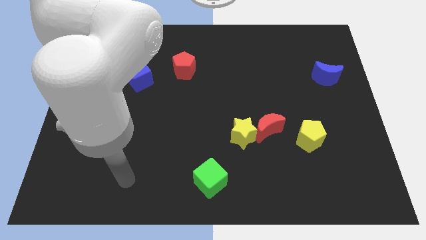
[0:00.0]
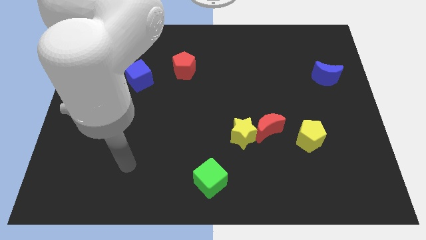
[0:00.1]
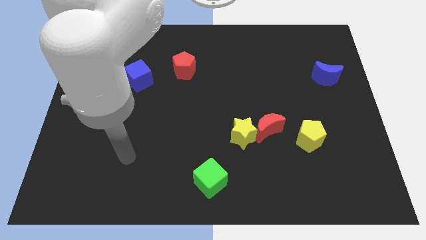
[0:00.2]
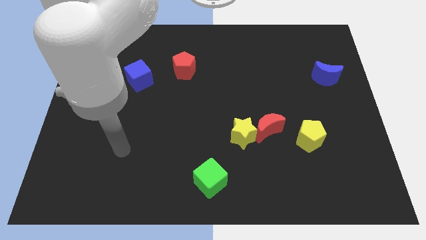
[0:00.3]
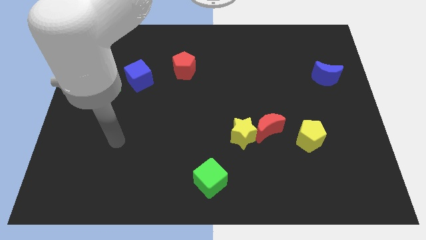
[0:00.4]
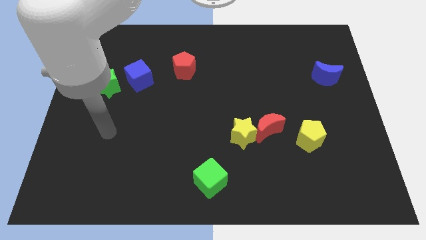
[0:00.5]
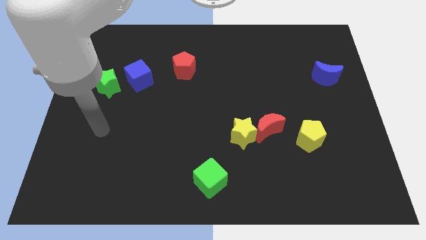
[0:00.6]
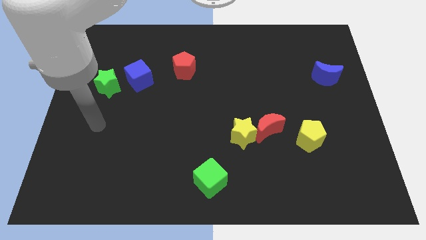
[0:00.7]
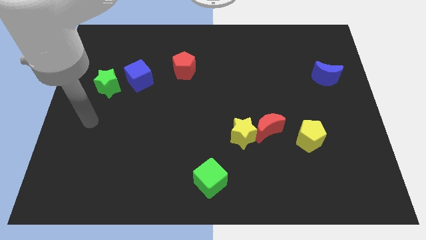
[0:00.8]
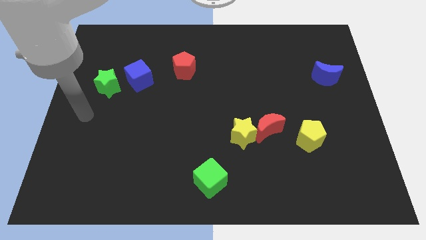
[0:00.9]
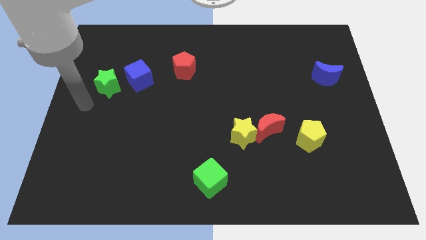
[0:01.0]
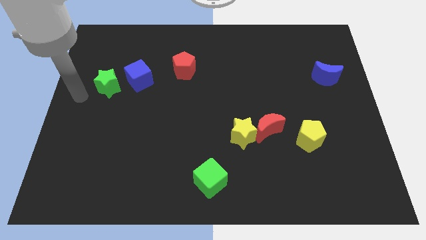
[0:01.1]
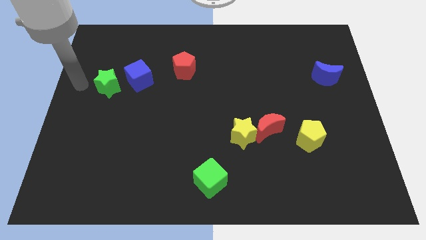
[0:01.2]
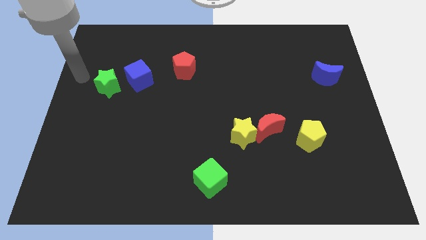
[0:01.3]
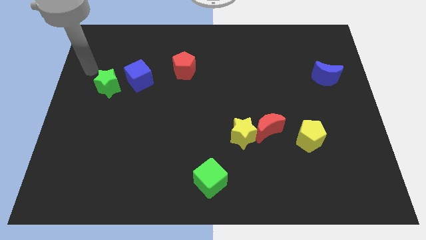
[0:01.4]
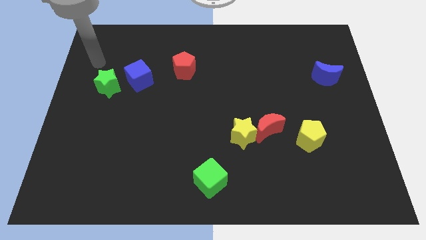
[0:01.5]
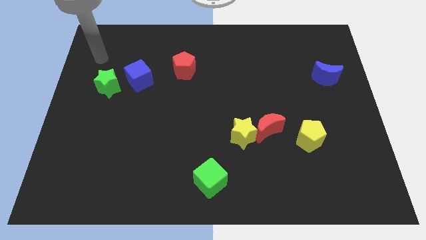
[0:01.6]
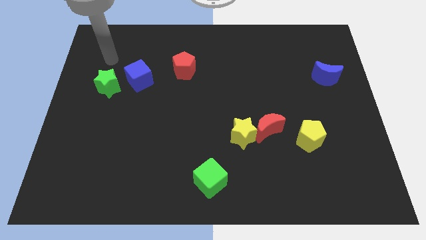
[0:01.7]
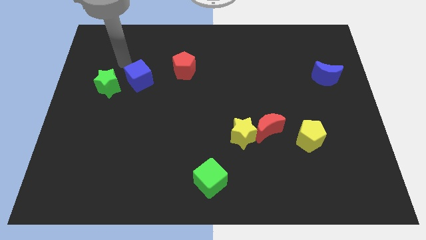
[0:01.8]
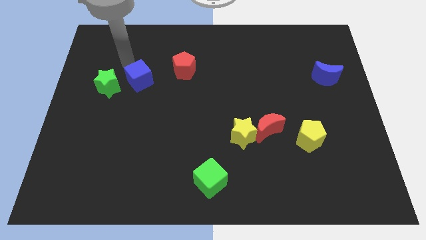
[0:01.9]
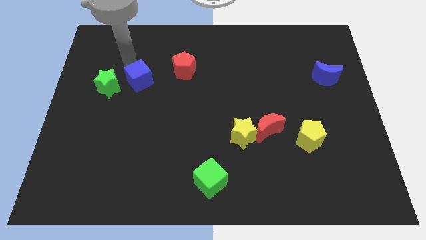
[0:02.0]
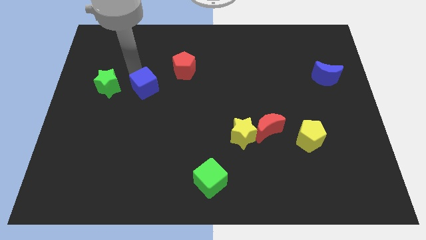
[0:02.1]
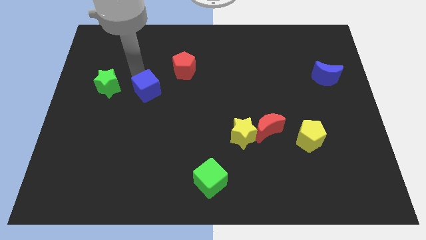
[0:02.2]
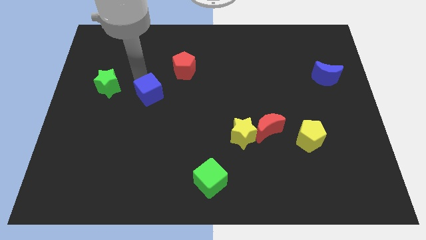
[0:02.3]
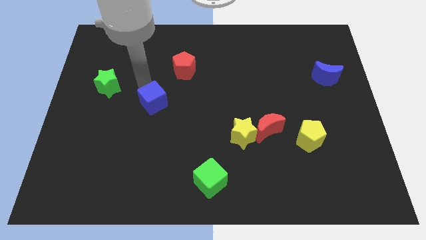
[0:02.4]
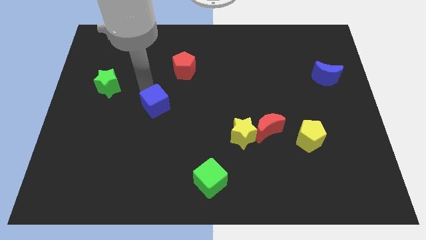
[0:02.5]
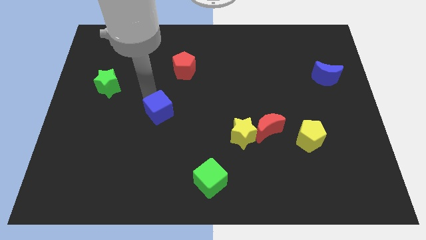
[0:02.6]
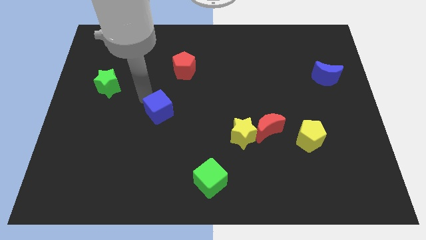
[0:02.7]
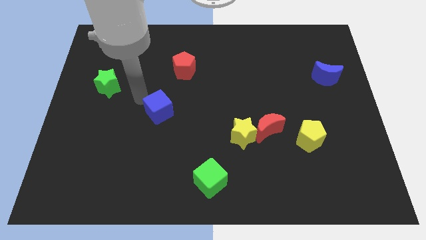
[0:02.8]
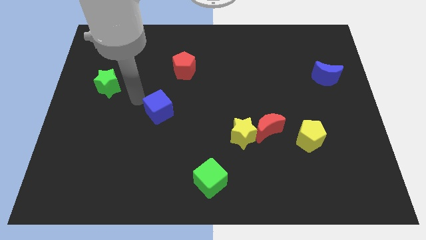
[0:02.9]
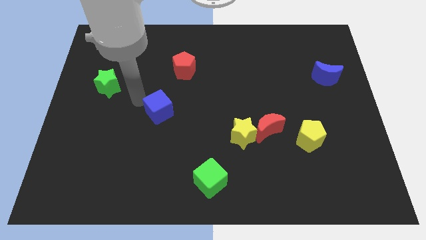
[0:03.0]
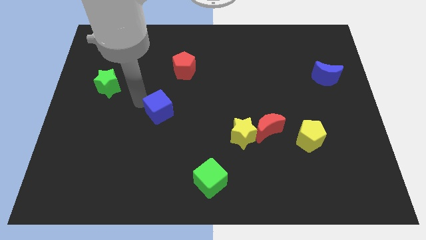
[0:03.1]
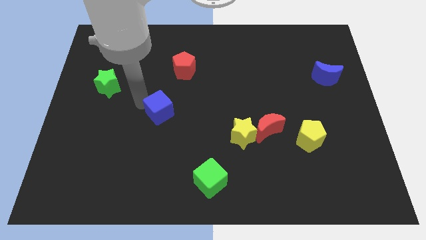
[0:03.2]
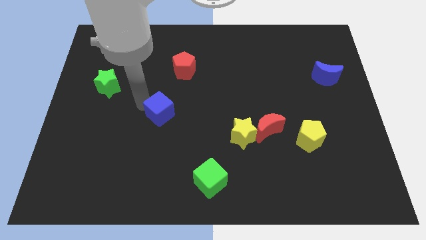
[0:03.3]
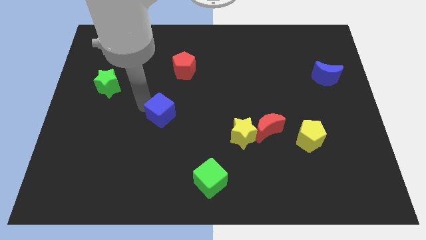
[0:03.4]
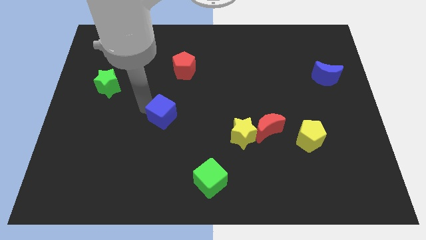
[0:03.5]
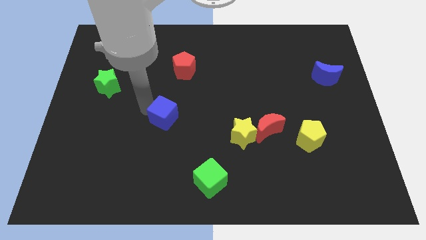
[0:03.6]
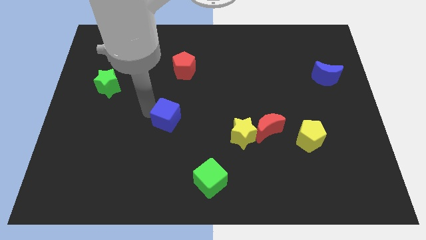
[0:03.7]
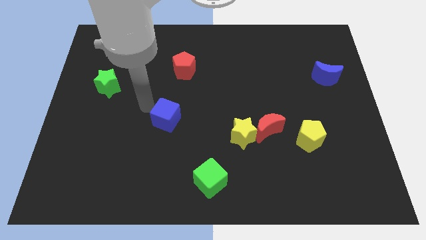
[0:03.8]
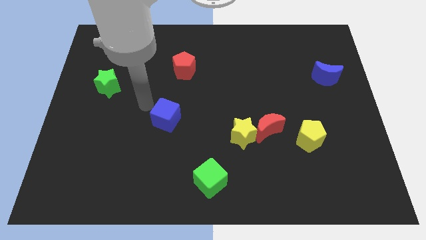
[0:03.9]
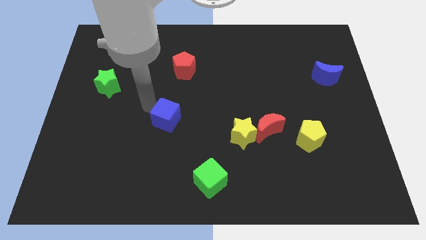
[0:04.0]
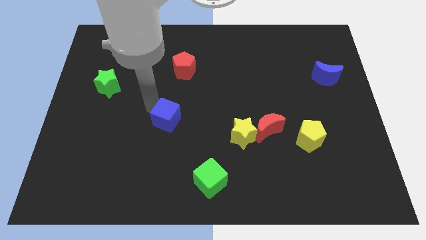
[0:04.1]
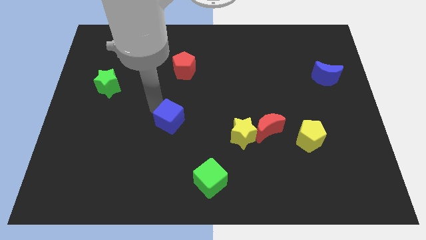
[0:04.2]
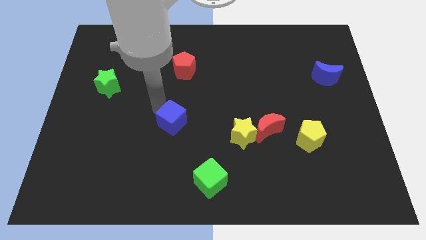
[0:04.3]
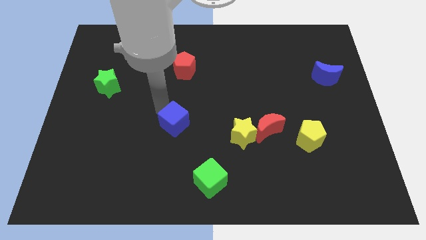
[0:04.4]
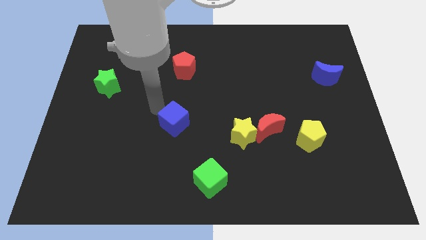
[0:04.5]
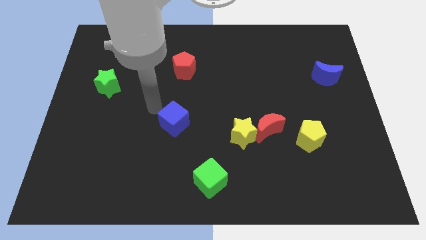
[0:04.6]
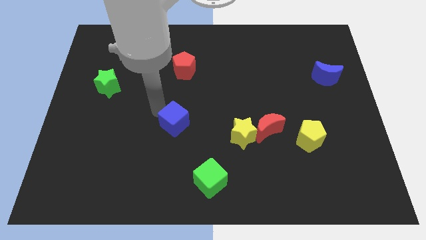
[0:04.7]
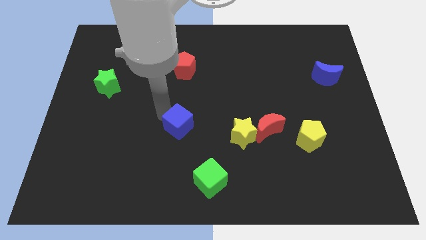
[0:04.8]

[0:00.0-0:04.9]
put the blue cube left of the yellow star

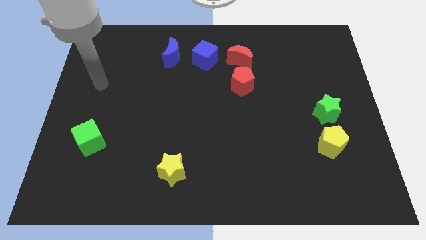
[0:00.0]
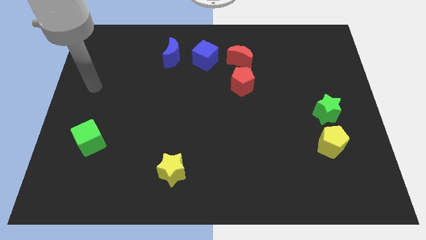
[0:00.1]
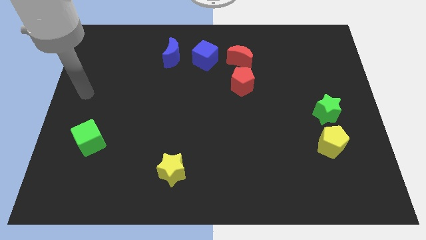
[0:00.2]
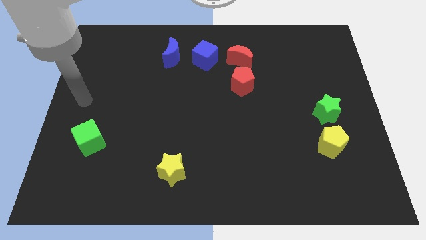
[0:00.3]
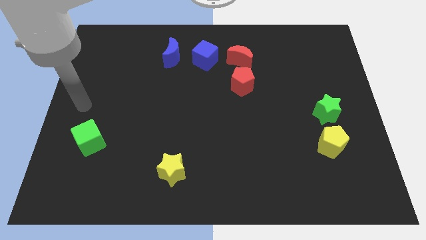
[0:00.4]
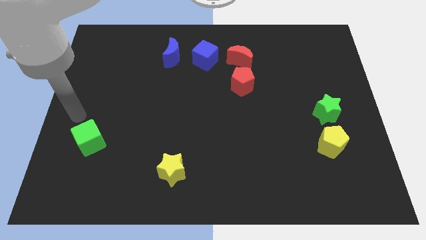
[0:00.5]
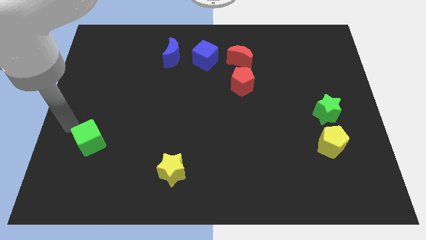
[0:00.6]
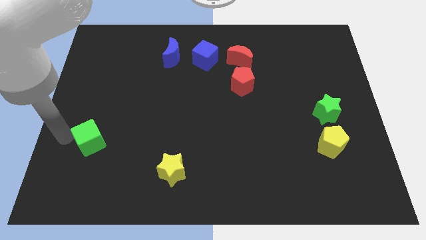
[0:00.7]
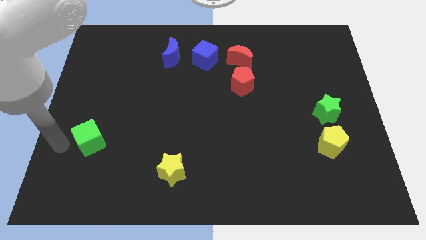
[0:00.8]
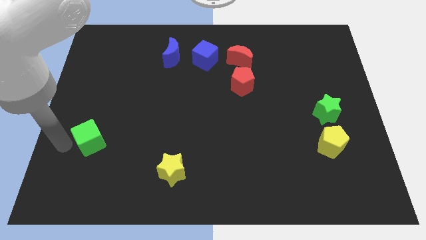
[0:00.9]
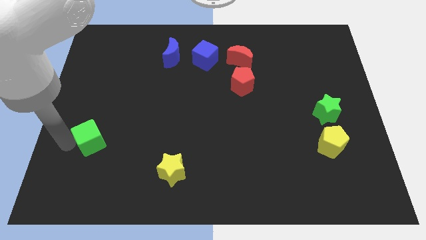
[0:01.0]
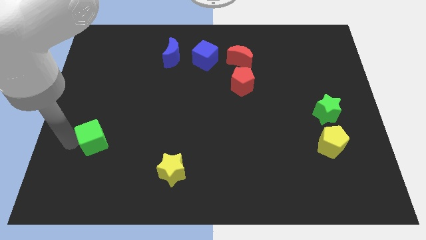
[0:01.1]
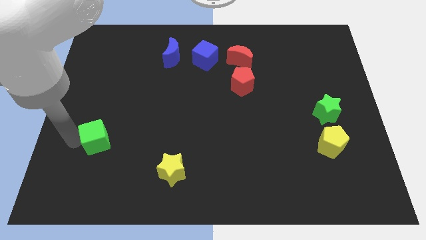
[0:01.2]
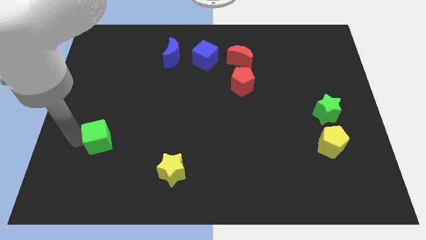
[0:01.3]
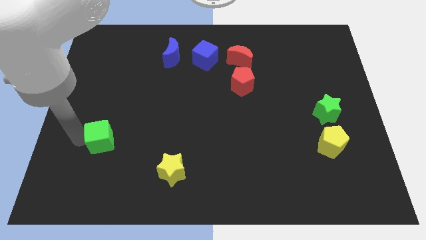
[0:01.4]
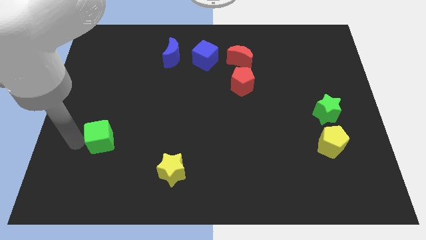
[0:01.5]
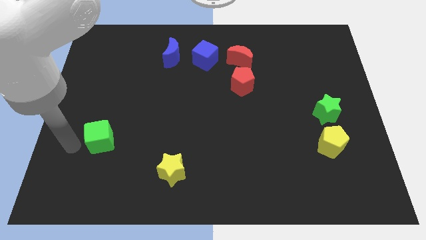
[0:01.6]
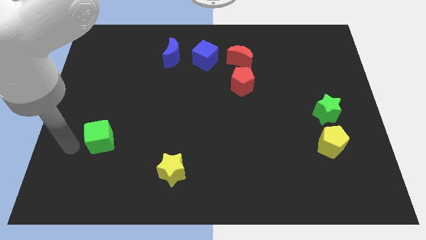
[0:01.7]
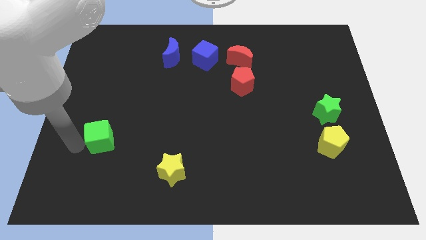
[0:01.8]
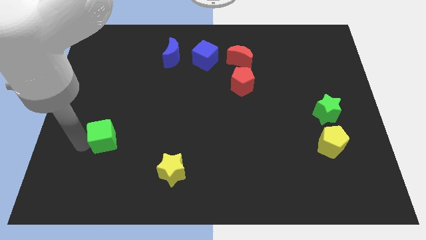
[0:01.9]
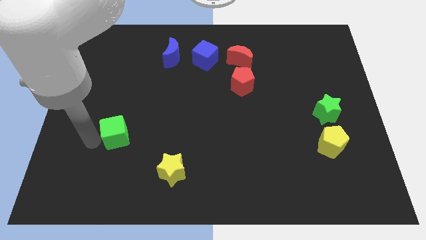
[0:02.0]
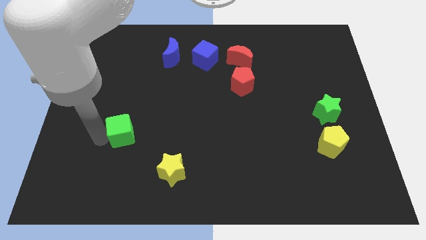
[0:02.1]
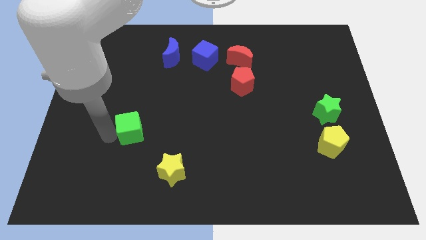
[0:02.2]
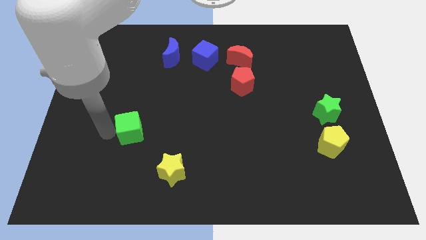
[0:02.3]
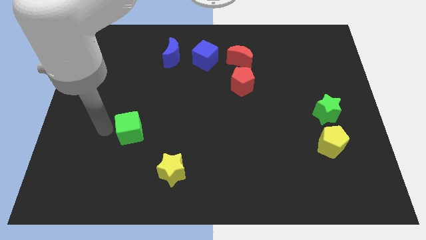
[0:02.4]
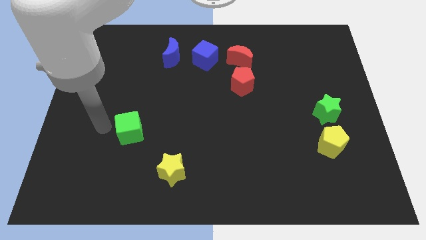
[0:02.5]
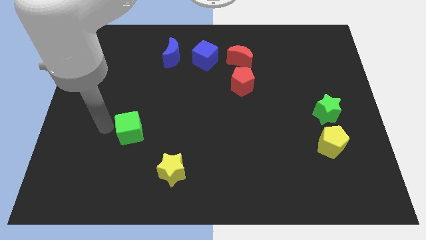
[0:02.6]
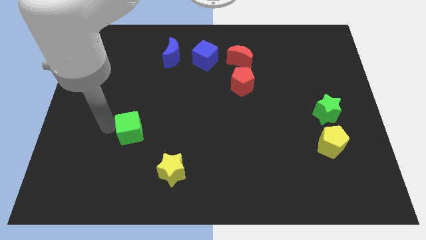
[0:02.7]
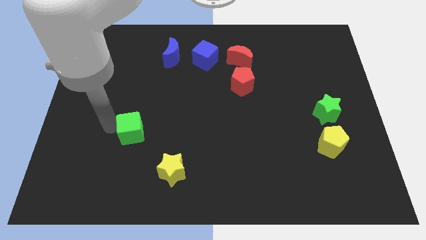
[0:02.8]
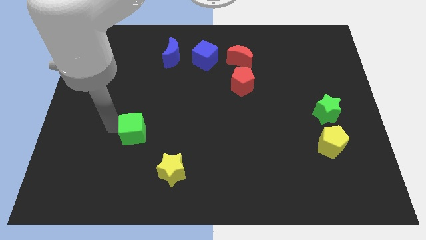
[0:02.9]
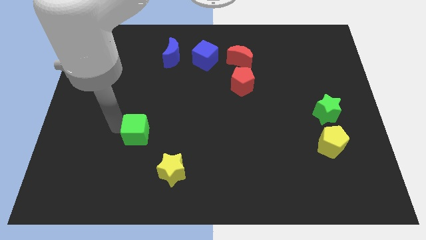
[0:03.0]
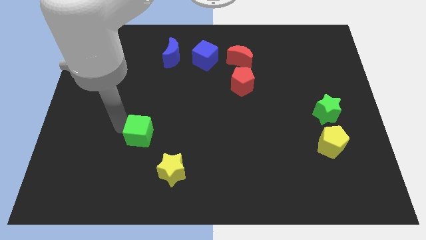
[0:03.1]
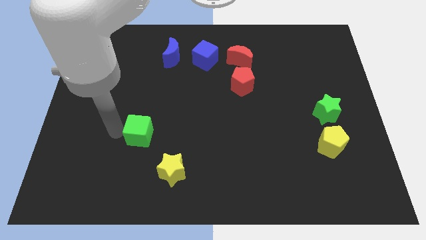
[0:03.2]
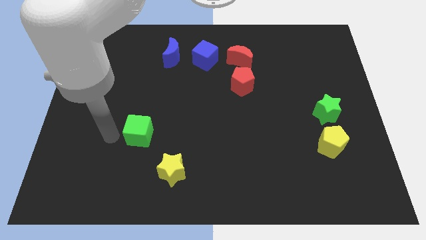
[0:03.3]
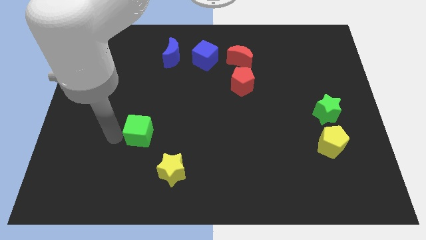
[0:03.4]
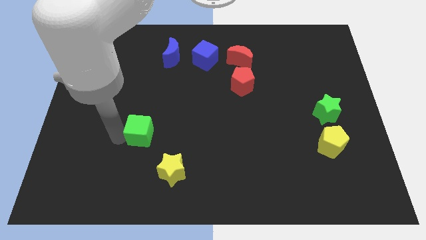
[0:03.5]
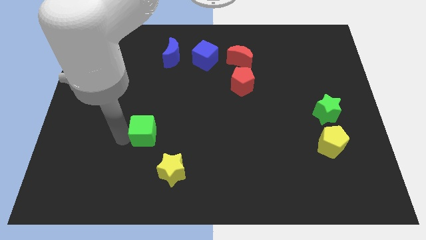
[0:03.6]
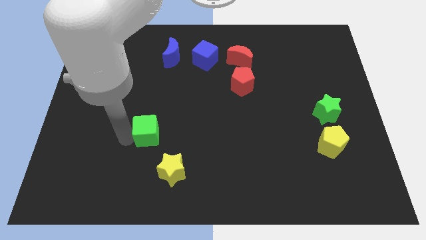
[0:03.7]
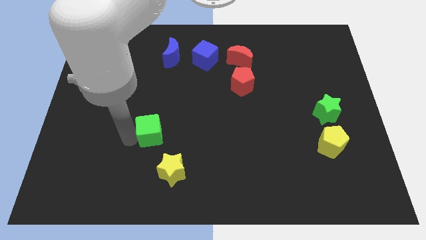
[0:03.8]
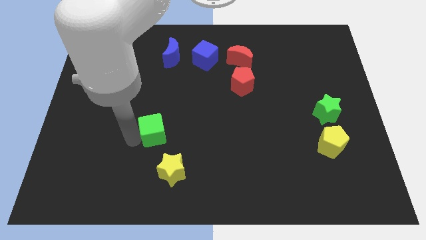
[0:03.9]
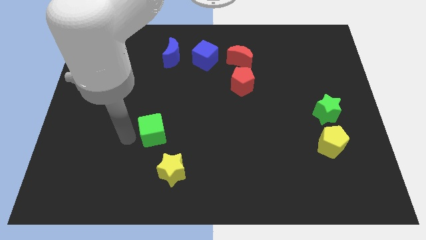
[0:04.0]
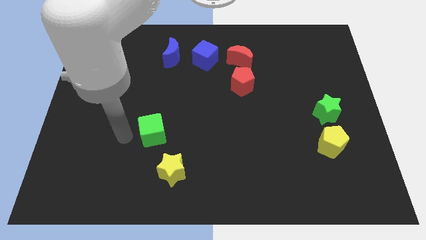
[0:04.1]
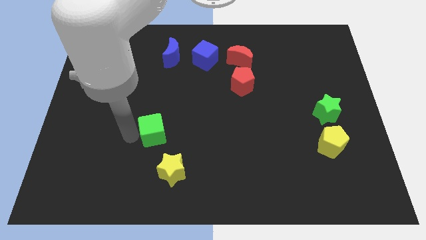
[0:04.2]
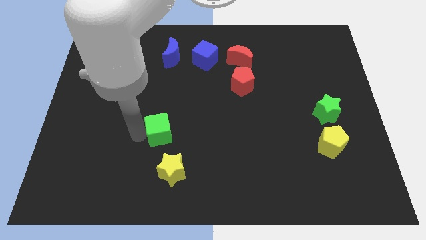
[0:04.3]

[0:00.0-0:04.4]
slide the green cube to the top of the yellow star
